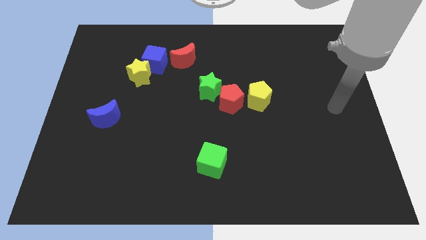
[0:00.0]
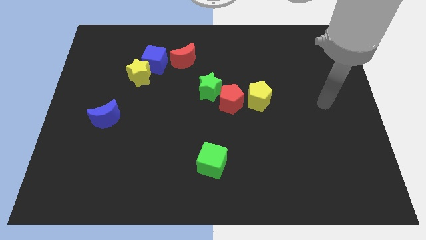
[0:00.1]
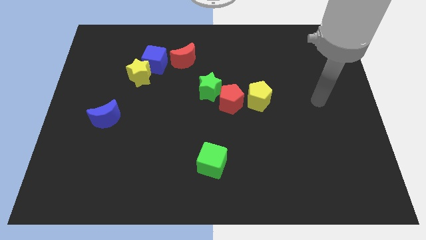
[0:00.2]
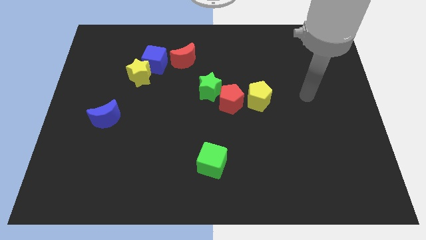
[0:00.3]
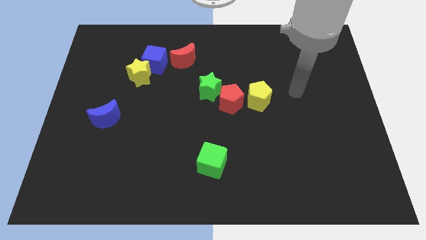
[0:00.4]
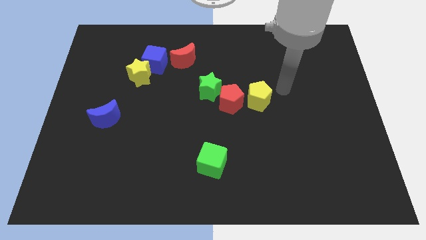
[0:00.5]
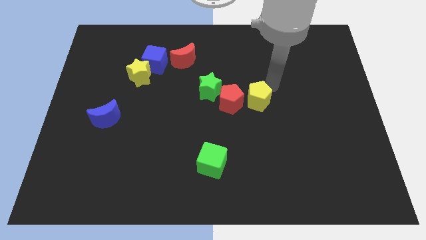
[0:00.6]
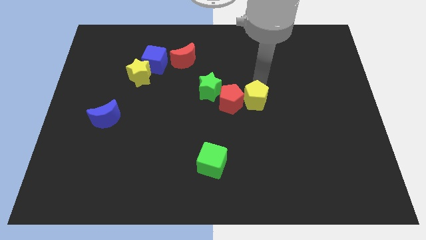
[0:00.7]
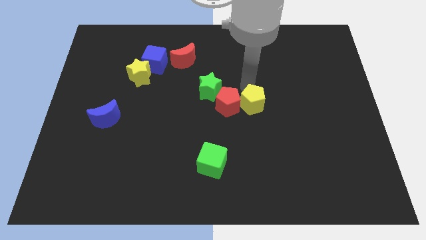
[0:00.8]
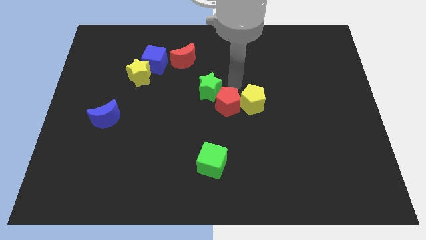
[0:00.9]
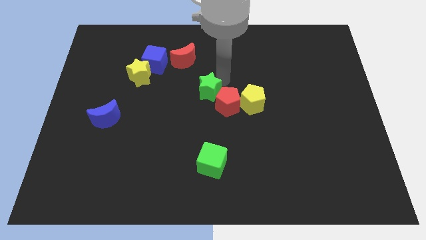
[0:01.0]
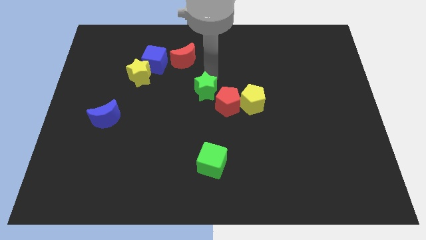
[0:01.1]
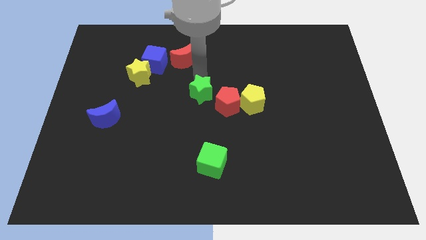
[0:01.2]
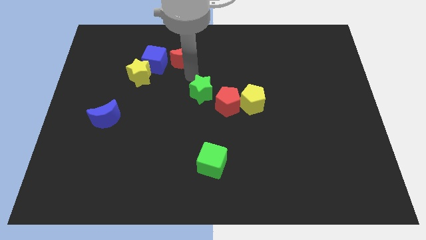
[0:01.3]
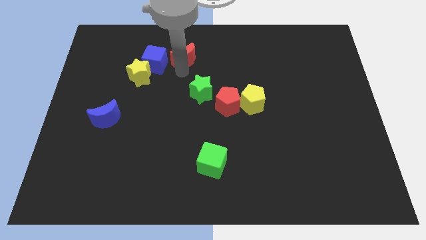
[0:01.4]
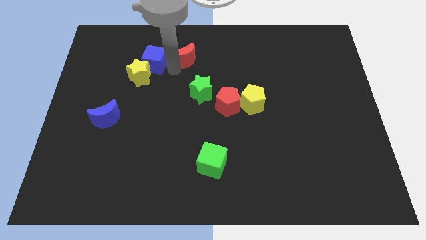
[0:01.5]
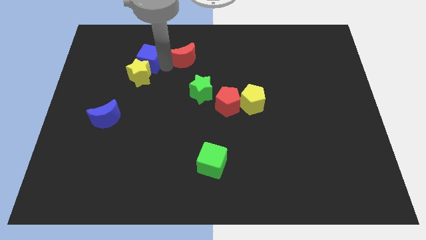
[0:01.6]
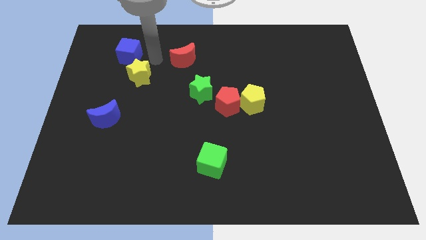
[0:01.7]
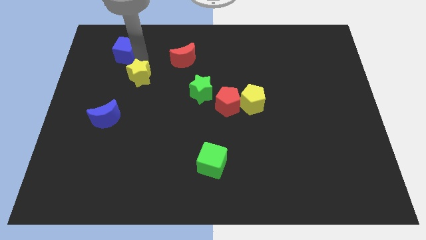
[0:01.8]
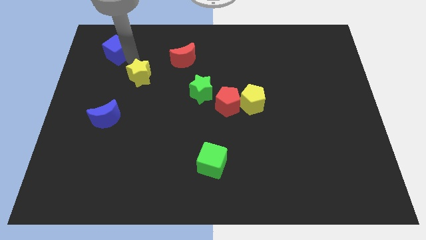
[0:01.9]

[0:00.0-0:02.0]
separate the yellow star from the blue cube

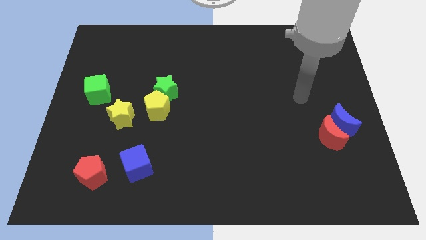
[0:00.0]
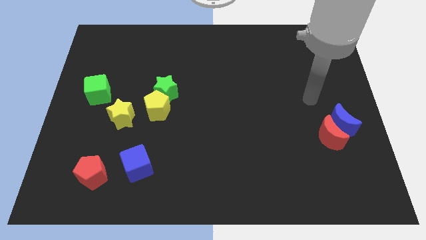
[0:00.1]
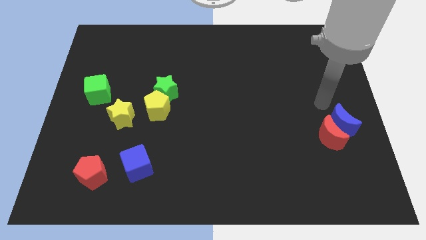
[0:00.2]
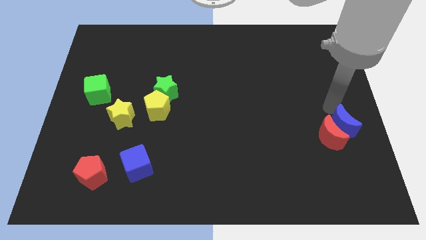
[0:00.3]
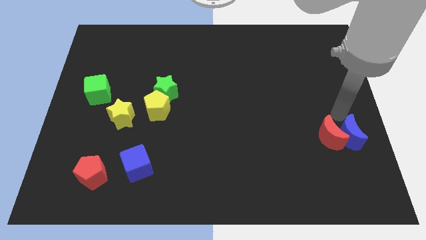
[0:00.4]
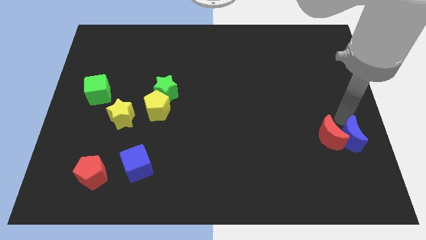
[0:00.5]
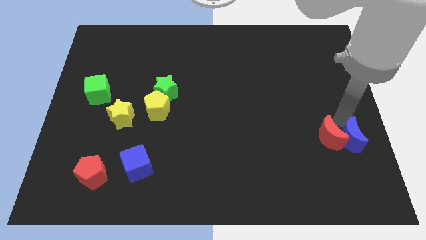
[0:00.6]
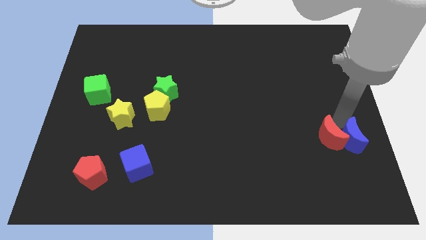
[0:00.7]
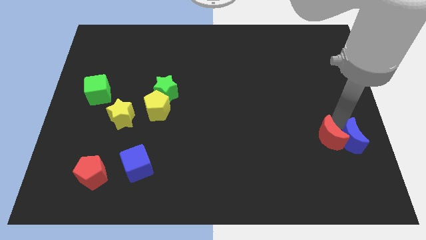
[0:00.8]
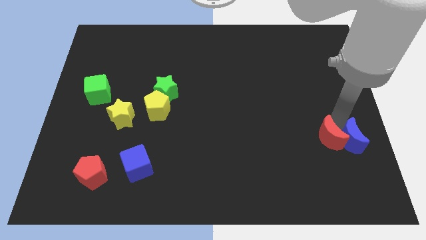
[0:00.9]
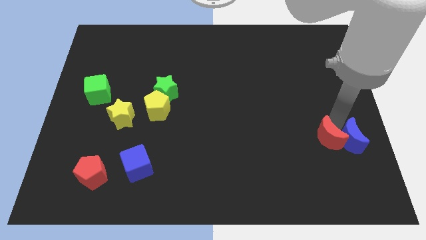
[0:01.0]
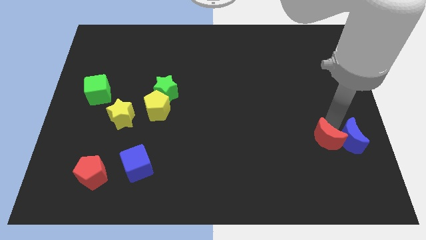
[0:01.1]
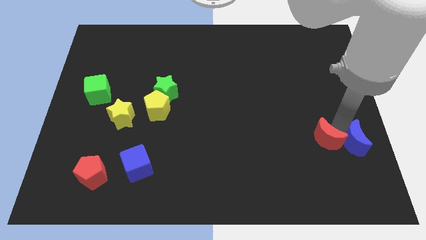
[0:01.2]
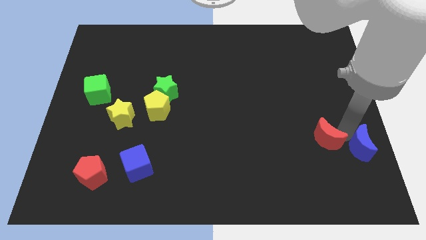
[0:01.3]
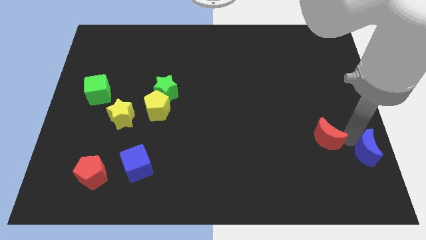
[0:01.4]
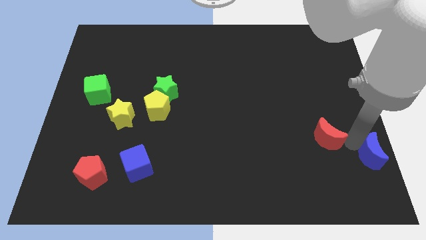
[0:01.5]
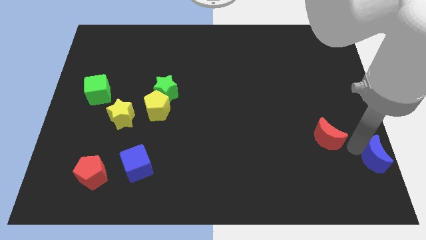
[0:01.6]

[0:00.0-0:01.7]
move the red moon away from the blue moon

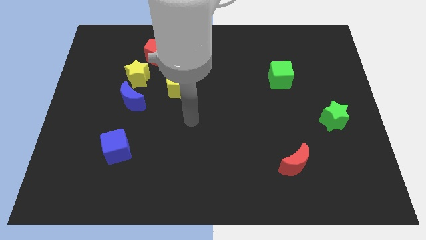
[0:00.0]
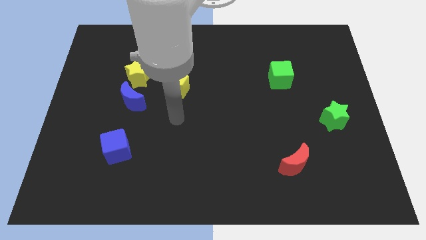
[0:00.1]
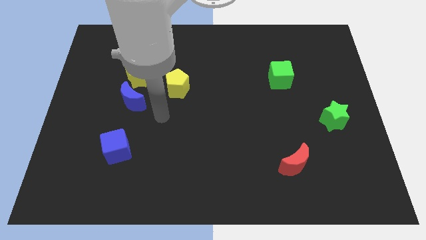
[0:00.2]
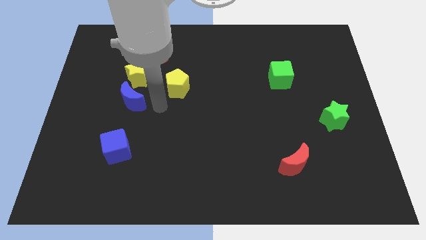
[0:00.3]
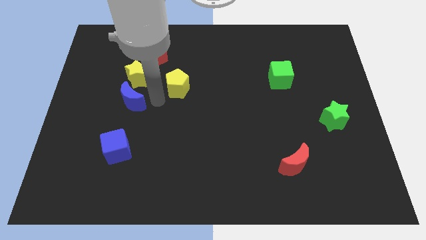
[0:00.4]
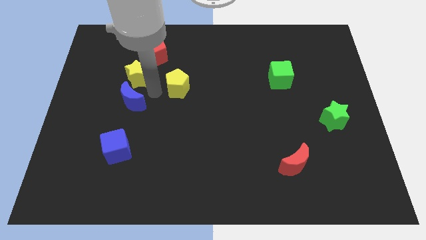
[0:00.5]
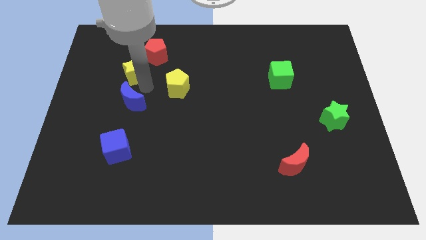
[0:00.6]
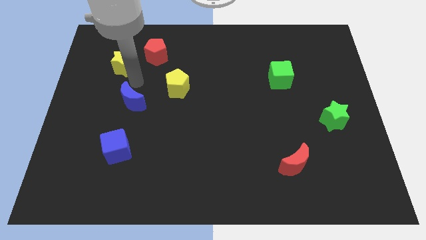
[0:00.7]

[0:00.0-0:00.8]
separate the blue moon from the yellow star

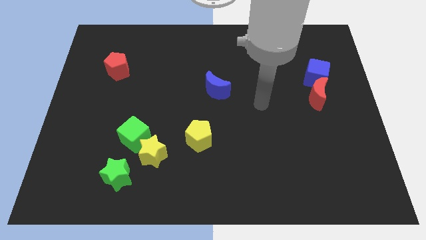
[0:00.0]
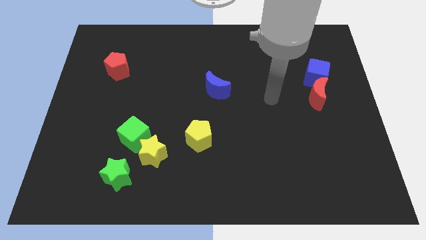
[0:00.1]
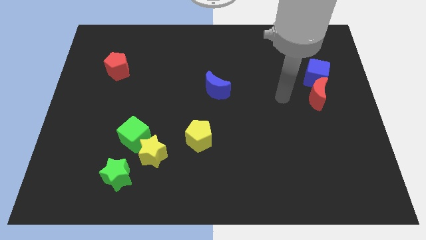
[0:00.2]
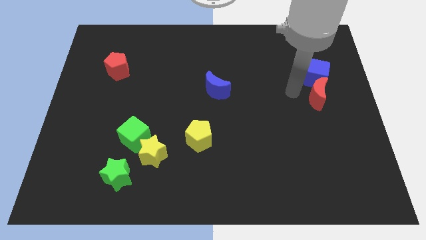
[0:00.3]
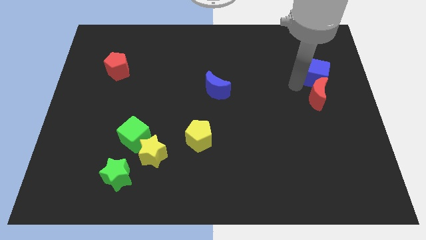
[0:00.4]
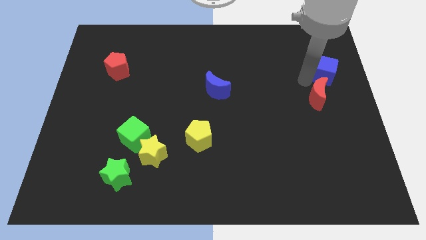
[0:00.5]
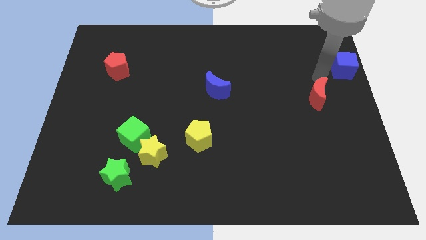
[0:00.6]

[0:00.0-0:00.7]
separate the red moon from the blue cube

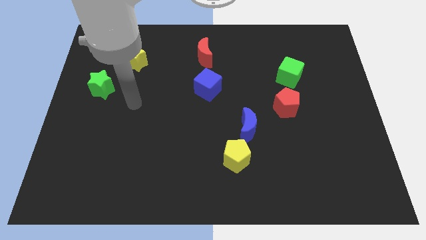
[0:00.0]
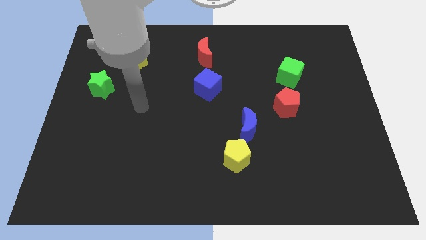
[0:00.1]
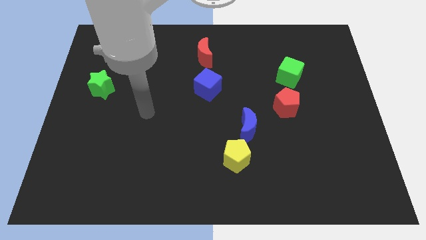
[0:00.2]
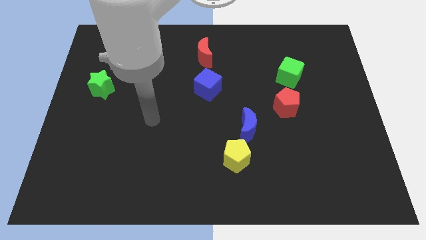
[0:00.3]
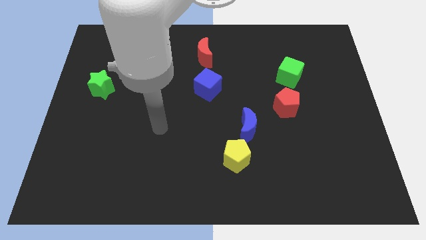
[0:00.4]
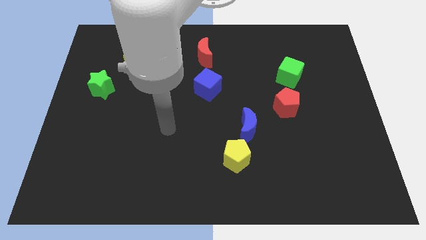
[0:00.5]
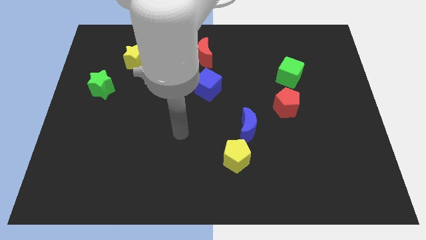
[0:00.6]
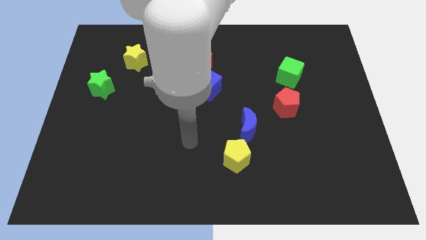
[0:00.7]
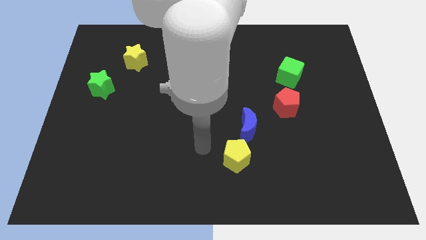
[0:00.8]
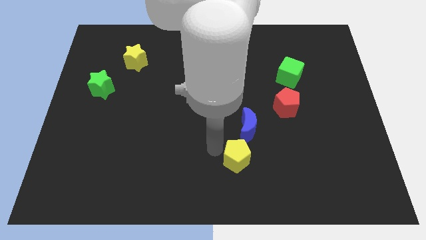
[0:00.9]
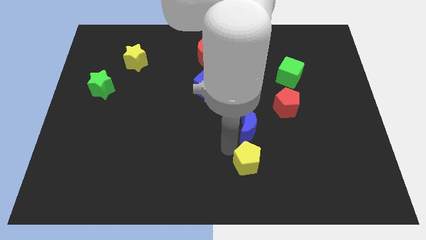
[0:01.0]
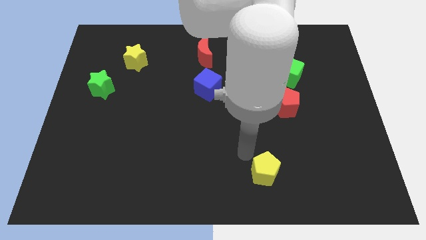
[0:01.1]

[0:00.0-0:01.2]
pull the blue moon apart from the yellow pentagon

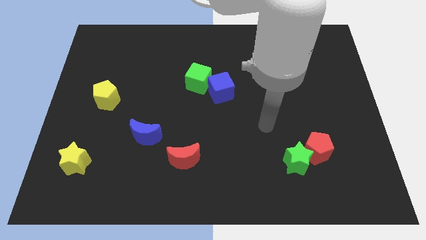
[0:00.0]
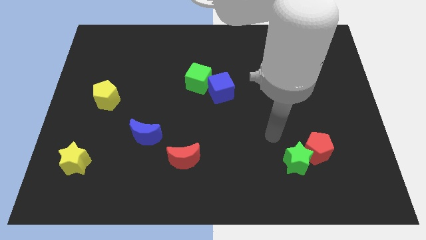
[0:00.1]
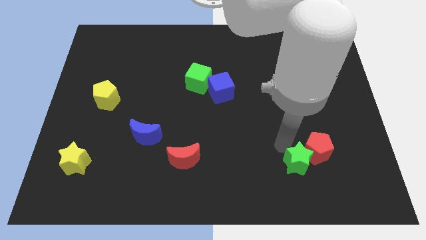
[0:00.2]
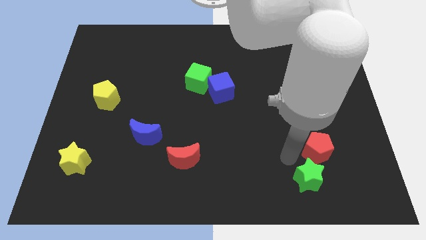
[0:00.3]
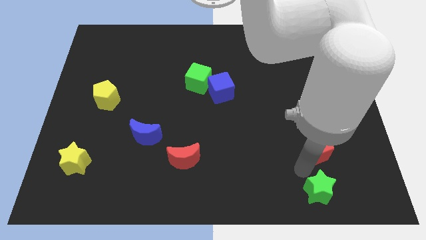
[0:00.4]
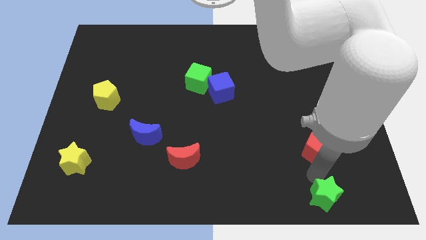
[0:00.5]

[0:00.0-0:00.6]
separate the red pentagon from the green star

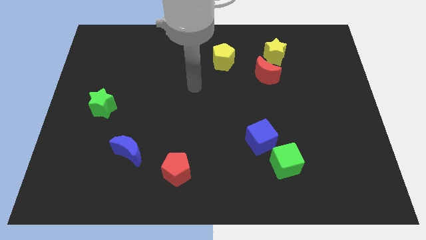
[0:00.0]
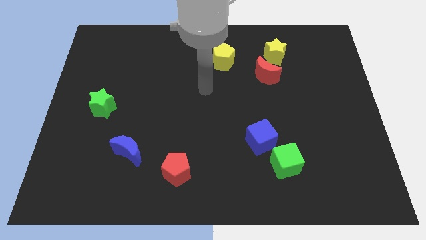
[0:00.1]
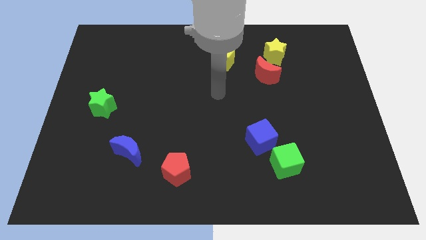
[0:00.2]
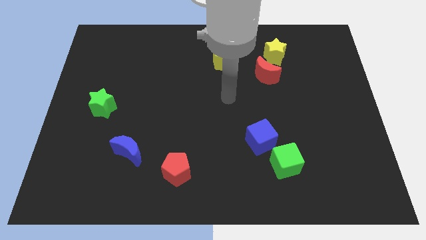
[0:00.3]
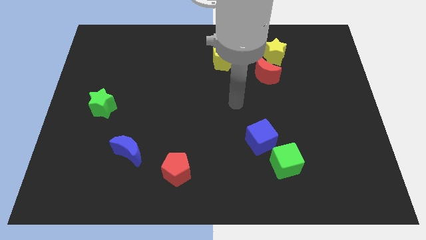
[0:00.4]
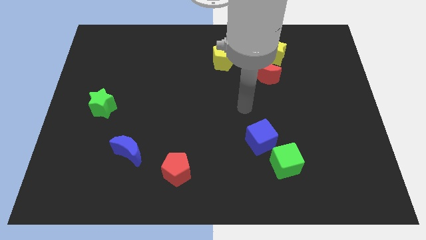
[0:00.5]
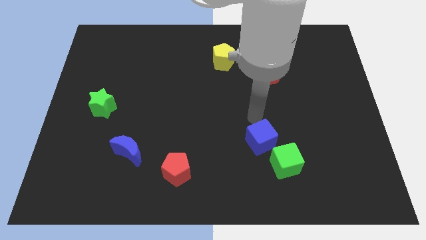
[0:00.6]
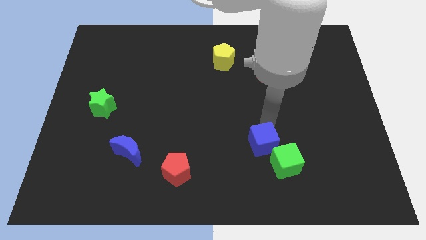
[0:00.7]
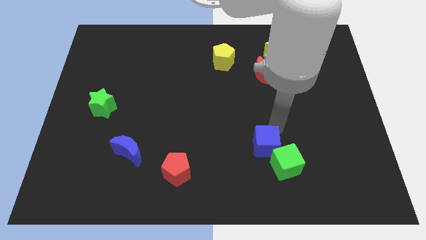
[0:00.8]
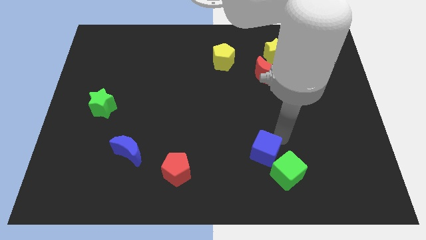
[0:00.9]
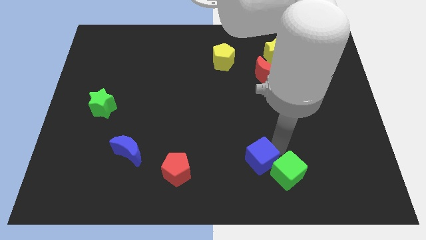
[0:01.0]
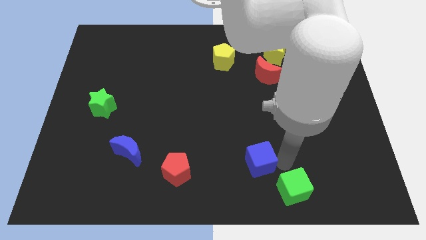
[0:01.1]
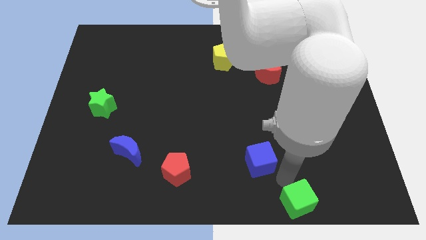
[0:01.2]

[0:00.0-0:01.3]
separate the blue cube from the green cube

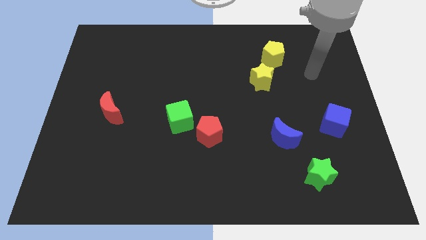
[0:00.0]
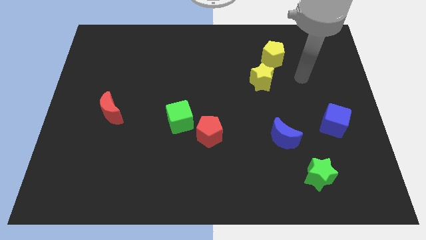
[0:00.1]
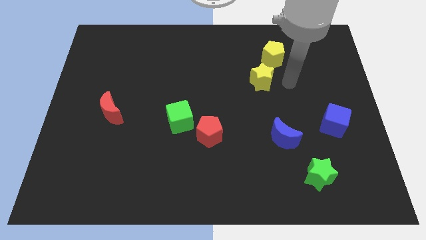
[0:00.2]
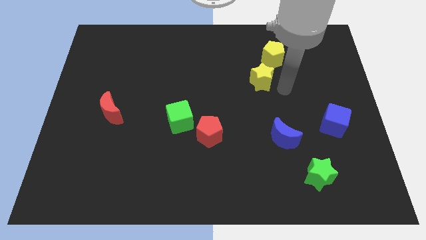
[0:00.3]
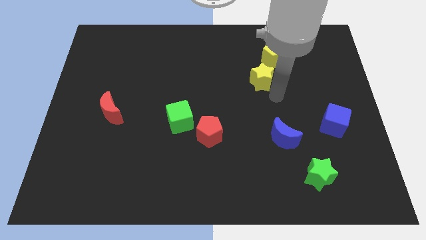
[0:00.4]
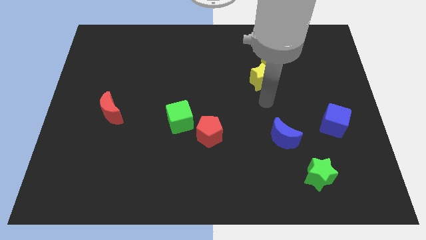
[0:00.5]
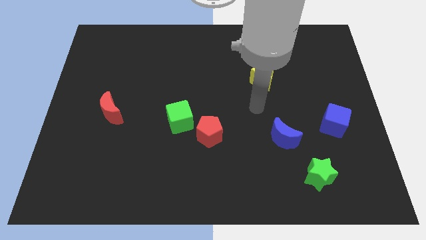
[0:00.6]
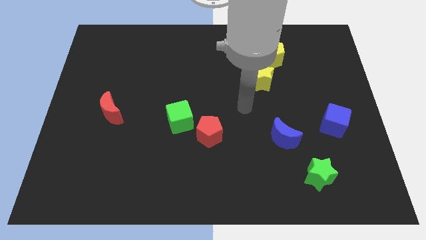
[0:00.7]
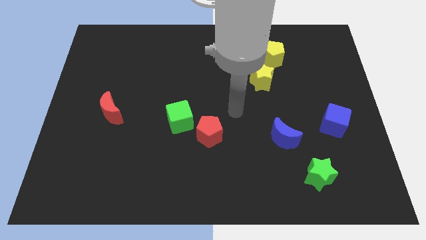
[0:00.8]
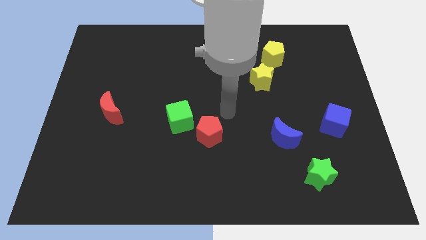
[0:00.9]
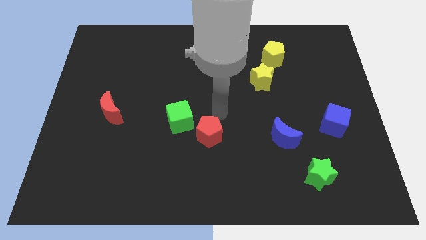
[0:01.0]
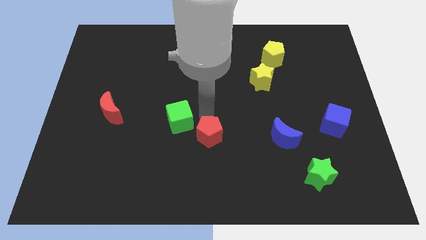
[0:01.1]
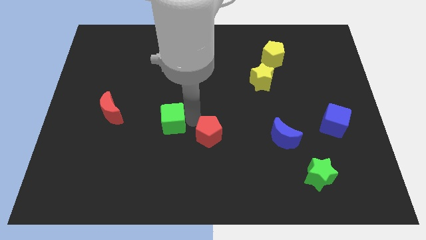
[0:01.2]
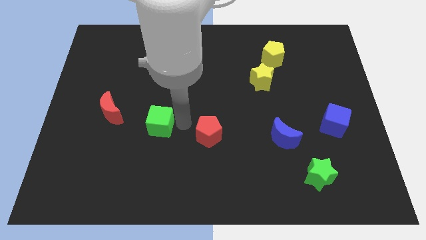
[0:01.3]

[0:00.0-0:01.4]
separate the red pentagon from the green cube
